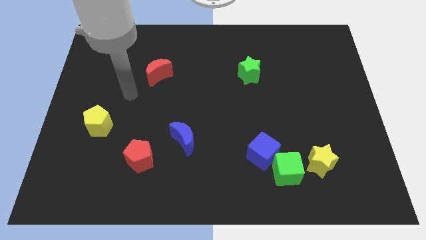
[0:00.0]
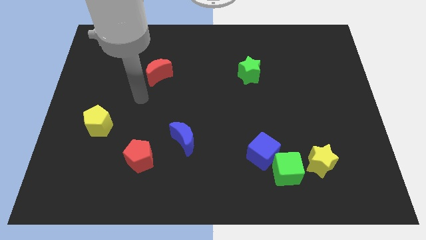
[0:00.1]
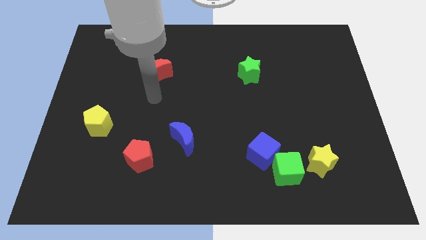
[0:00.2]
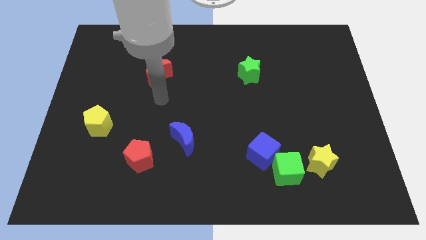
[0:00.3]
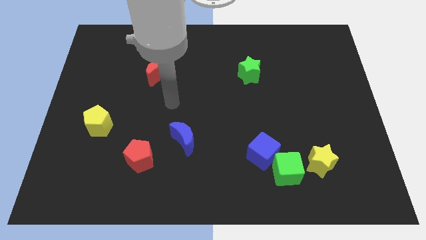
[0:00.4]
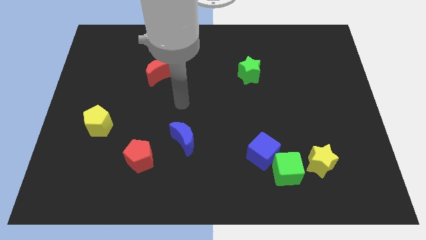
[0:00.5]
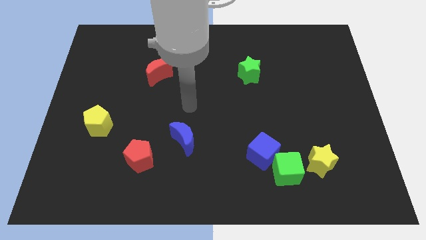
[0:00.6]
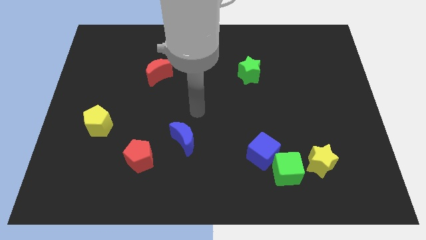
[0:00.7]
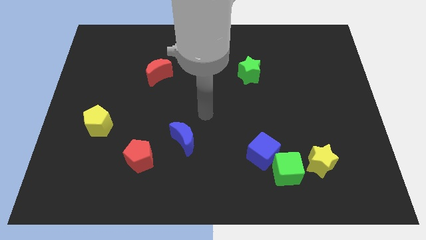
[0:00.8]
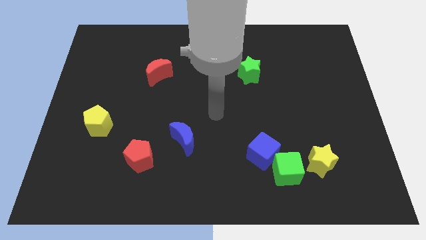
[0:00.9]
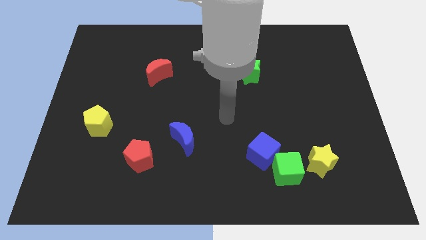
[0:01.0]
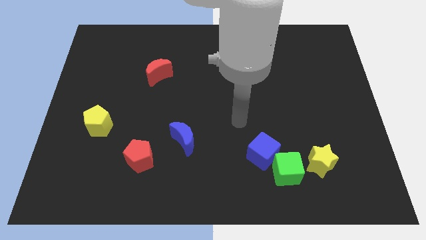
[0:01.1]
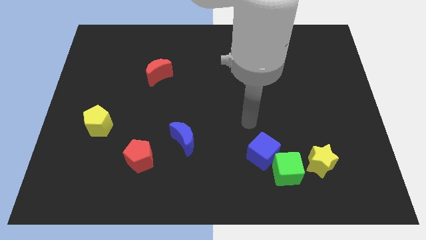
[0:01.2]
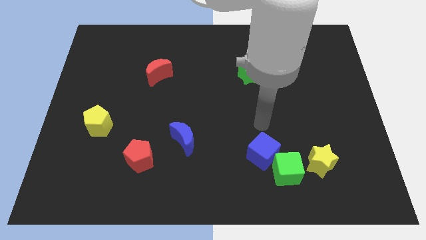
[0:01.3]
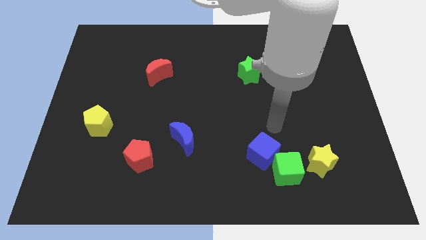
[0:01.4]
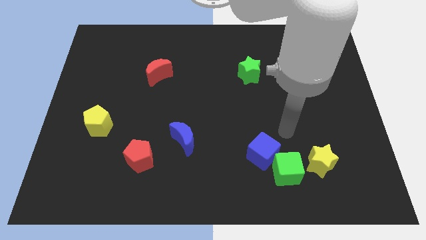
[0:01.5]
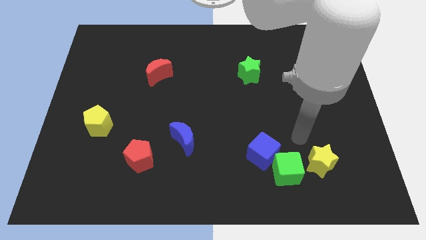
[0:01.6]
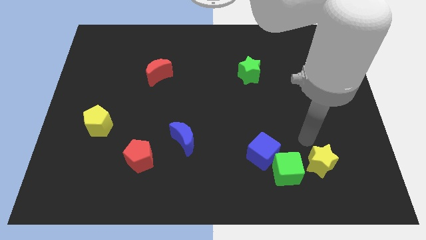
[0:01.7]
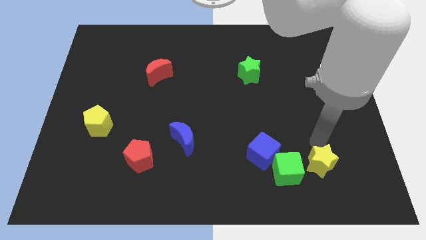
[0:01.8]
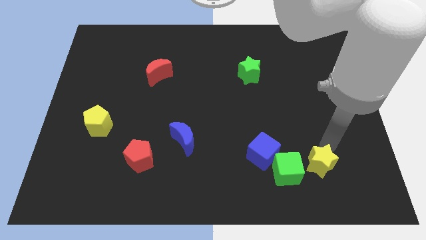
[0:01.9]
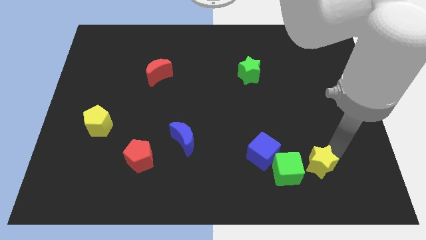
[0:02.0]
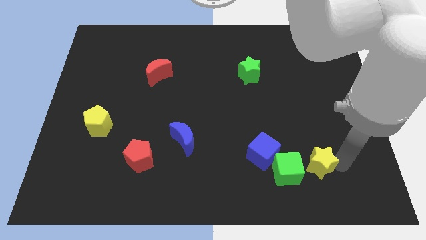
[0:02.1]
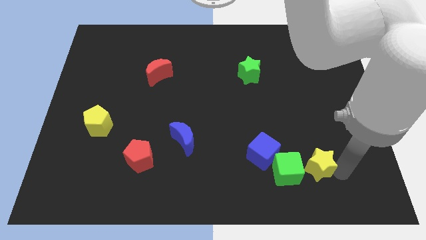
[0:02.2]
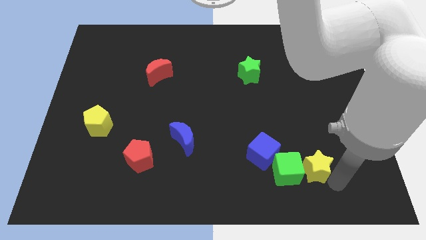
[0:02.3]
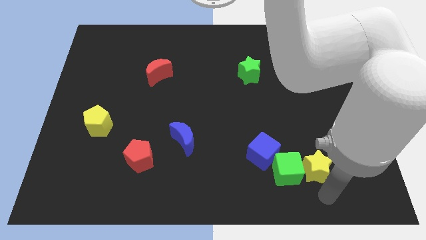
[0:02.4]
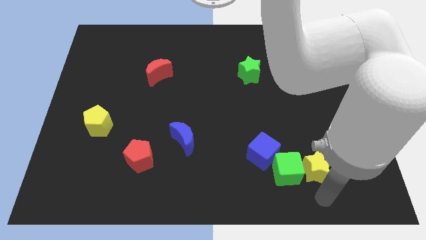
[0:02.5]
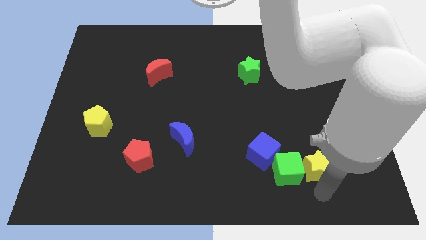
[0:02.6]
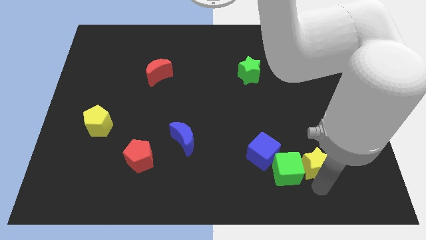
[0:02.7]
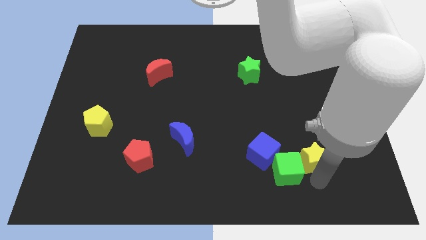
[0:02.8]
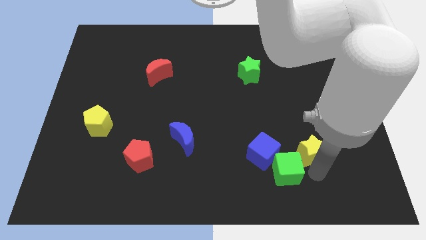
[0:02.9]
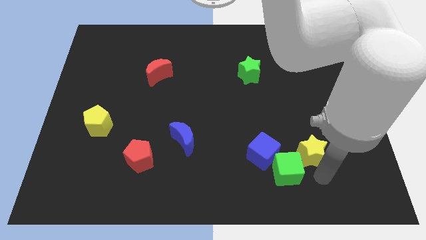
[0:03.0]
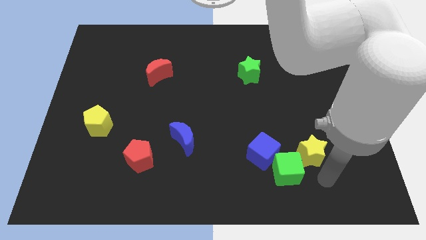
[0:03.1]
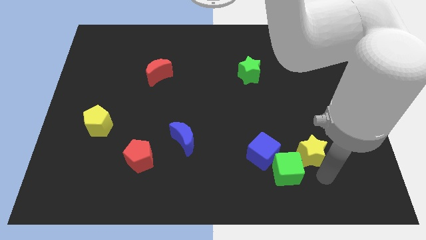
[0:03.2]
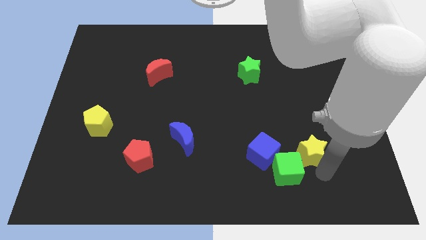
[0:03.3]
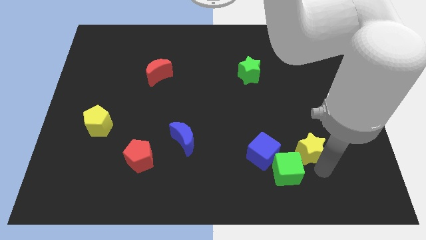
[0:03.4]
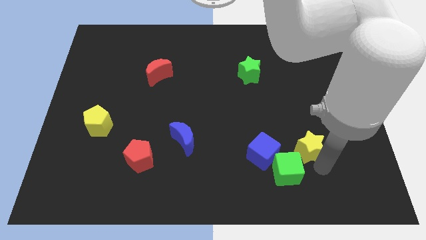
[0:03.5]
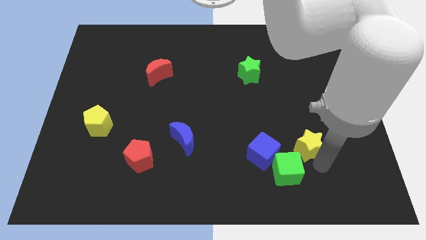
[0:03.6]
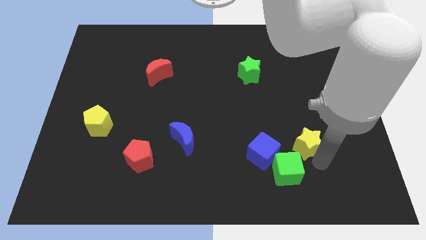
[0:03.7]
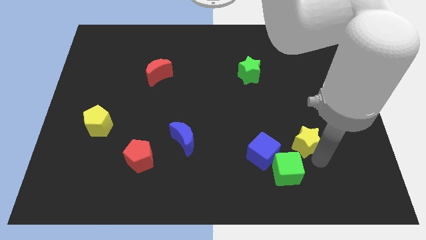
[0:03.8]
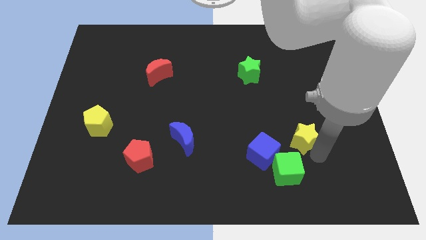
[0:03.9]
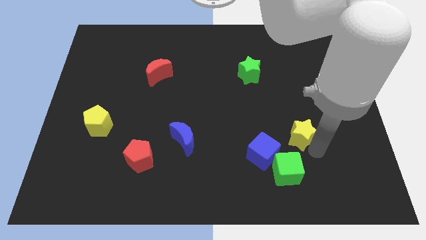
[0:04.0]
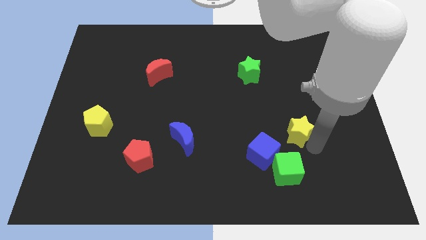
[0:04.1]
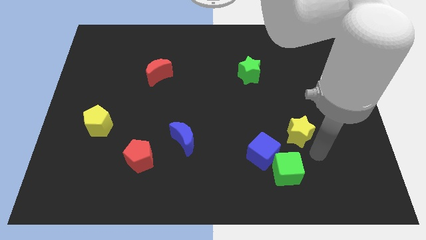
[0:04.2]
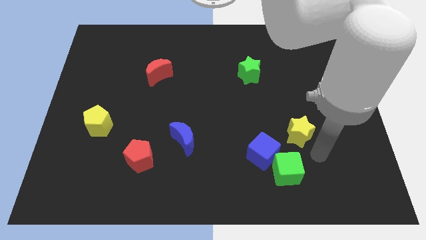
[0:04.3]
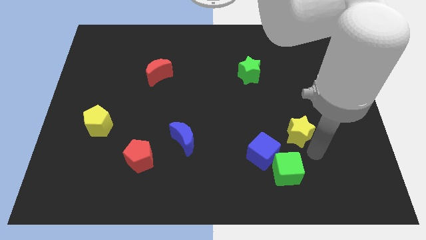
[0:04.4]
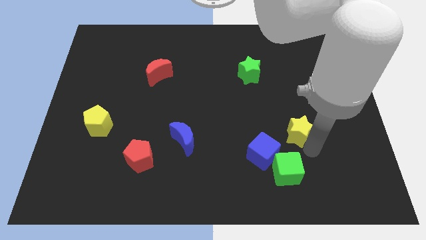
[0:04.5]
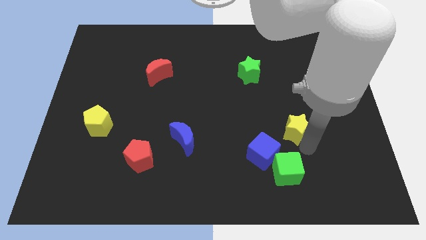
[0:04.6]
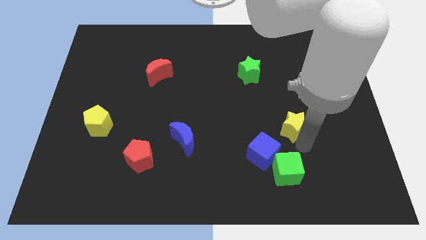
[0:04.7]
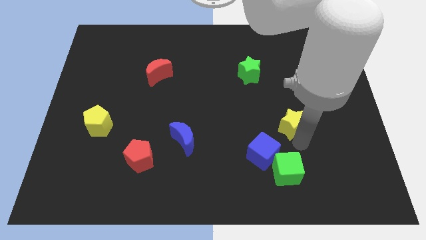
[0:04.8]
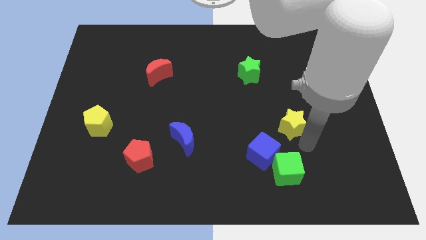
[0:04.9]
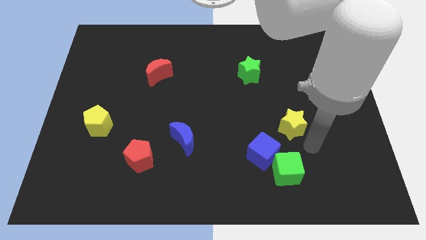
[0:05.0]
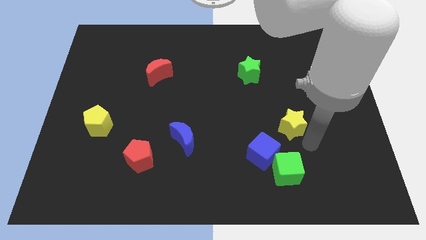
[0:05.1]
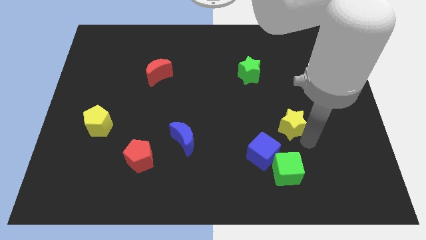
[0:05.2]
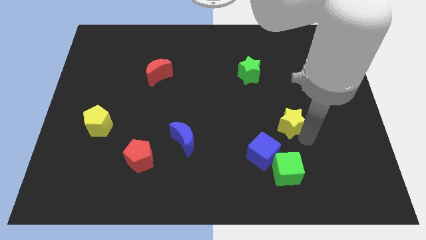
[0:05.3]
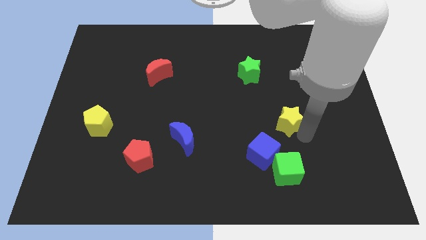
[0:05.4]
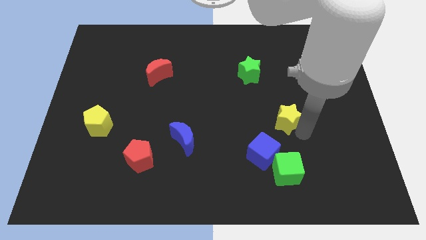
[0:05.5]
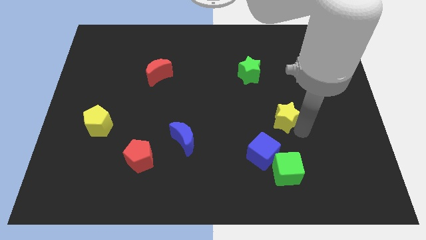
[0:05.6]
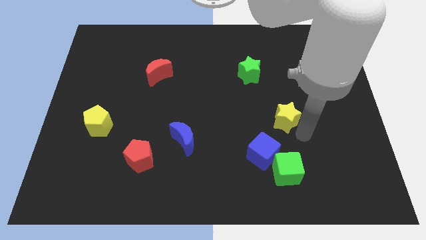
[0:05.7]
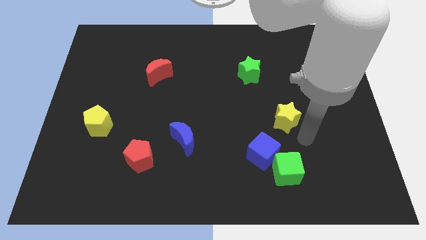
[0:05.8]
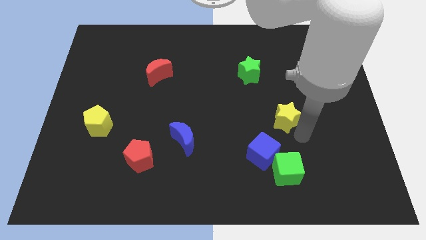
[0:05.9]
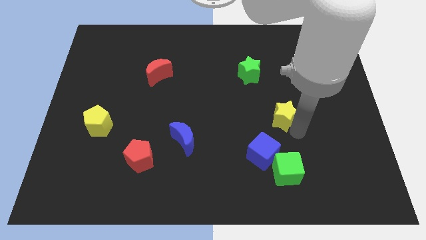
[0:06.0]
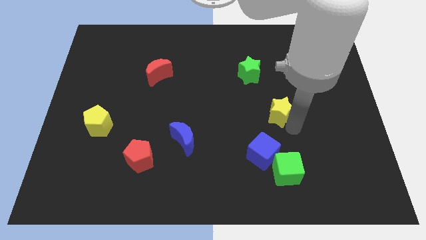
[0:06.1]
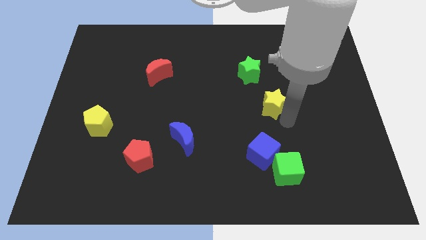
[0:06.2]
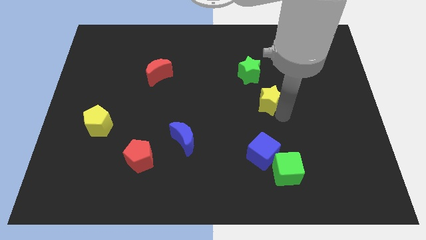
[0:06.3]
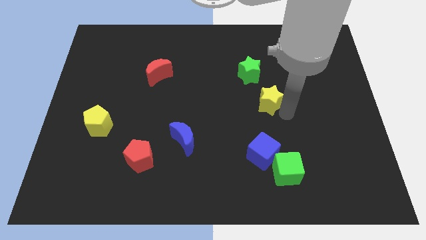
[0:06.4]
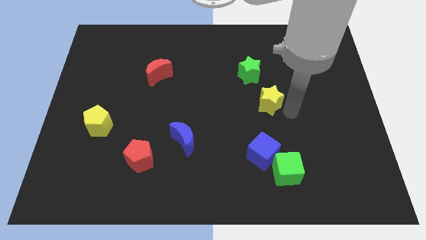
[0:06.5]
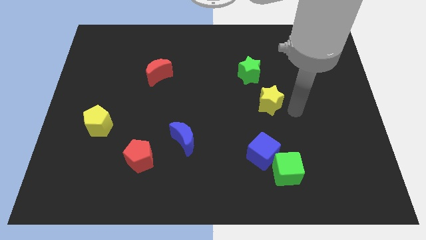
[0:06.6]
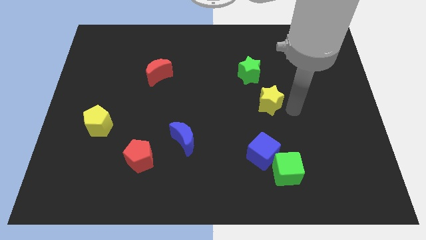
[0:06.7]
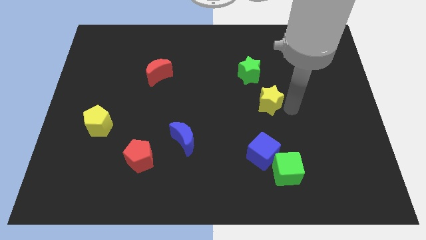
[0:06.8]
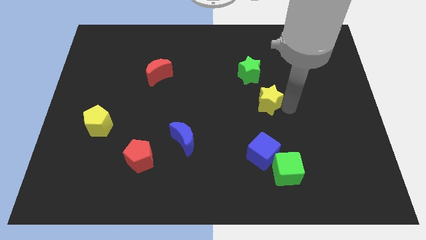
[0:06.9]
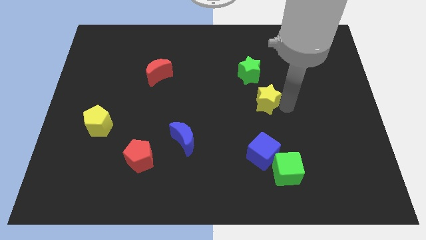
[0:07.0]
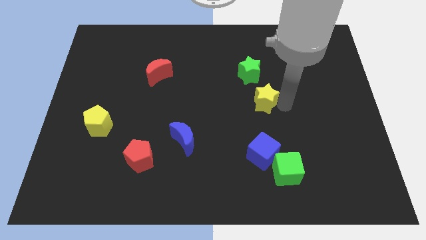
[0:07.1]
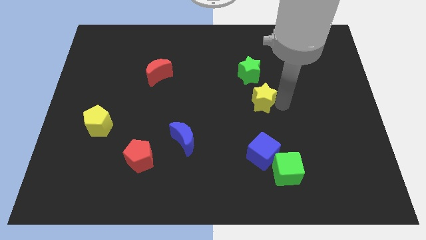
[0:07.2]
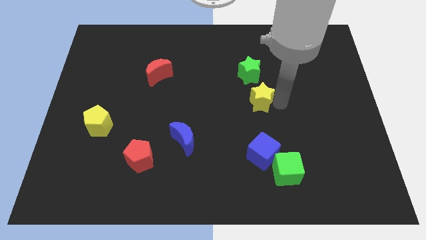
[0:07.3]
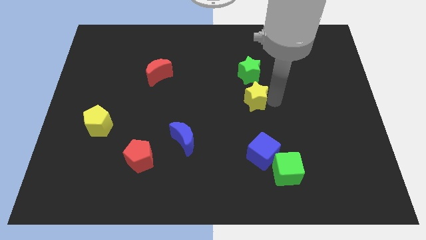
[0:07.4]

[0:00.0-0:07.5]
slide the yellow star upwards and left

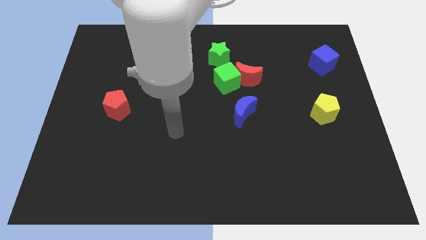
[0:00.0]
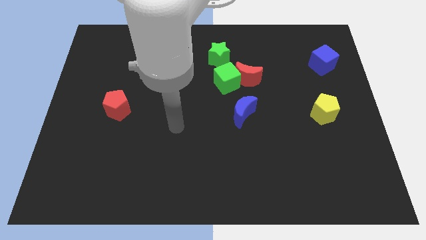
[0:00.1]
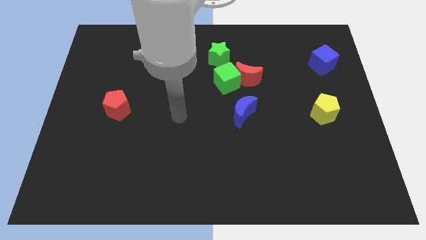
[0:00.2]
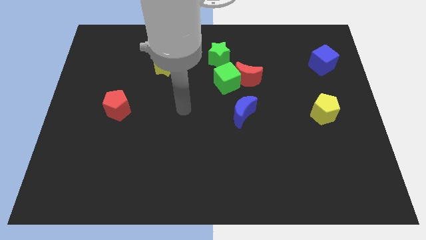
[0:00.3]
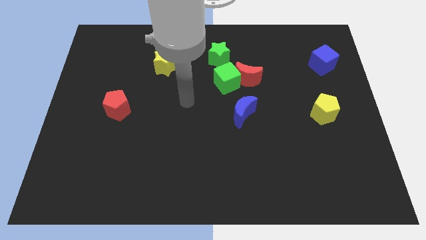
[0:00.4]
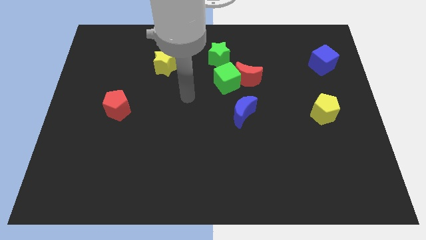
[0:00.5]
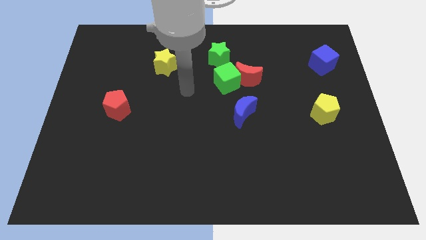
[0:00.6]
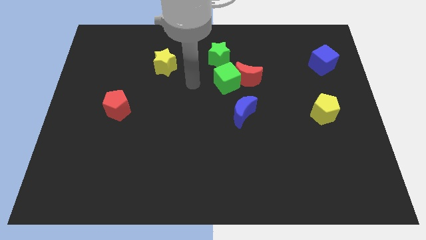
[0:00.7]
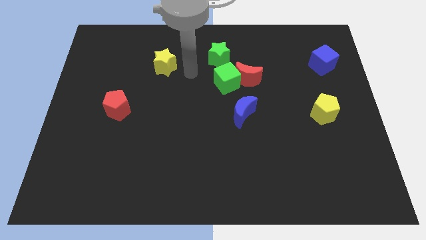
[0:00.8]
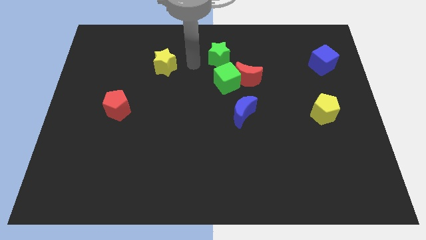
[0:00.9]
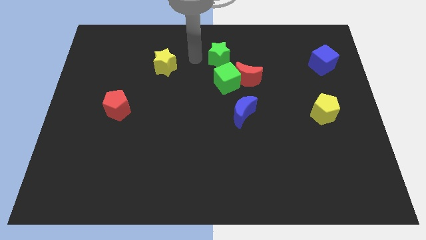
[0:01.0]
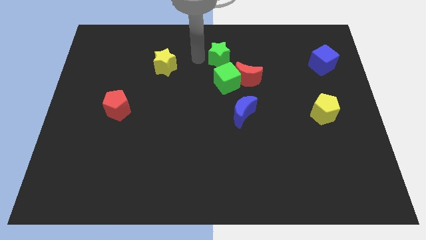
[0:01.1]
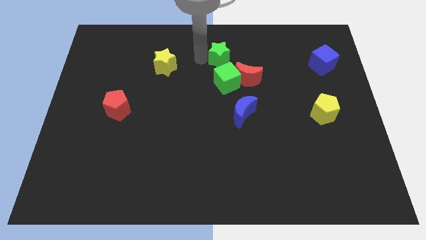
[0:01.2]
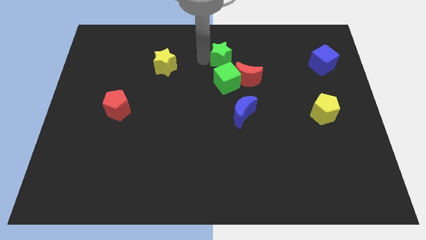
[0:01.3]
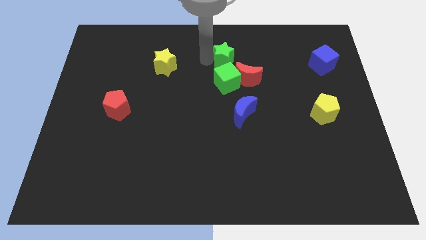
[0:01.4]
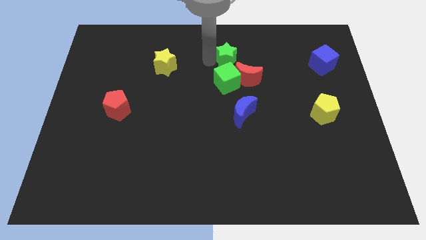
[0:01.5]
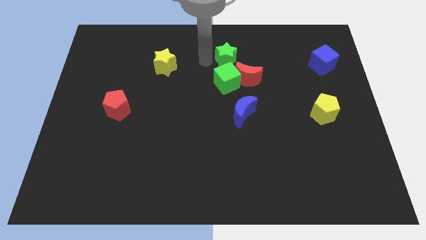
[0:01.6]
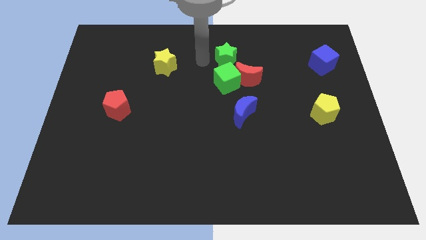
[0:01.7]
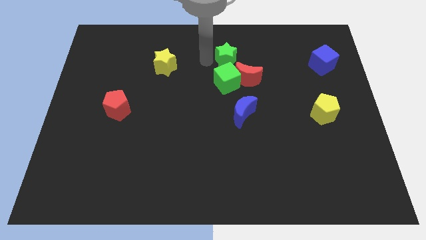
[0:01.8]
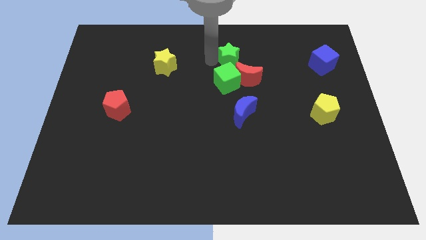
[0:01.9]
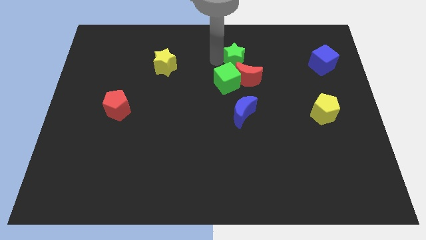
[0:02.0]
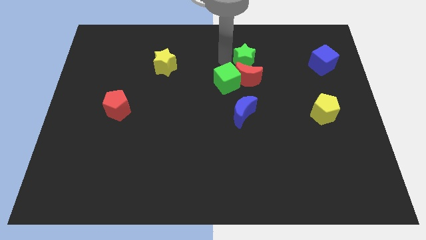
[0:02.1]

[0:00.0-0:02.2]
move the green star somewhat to the right
